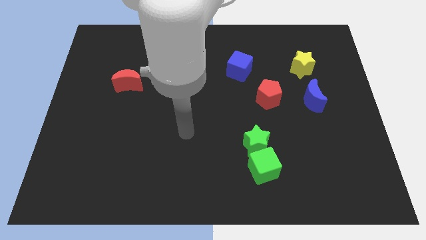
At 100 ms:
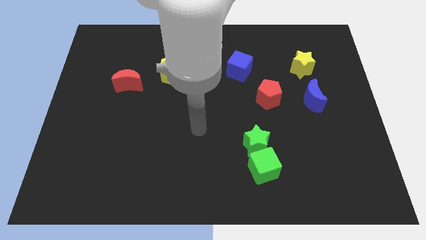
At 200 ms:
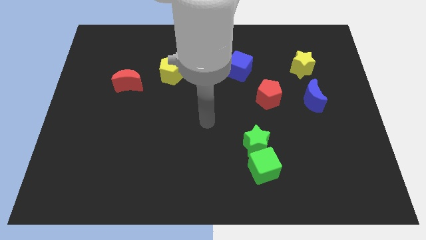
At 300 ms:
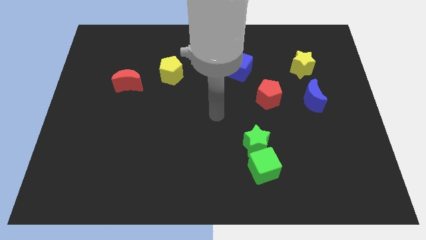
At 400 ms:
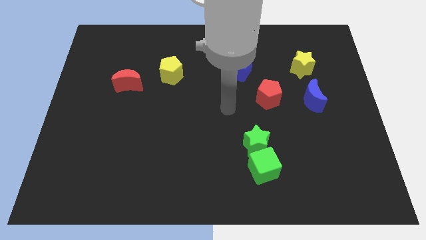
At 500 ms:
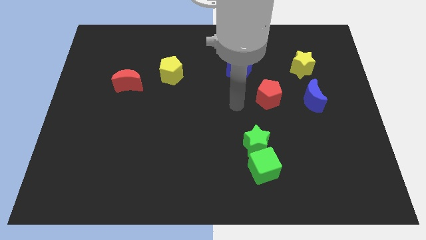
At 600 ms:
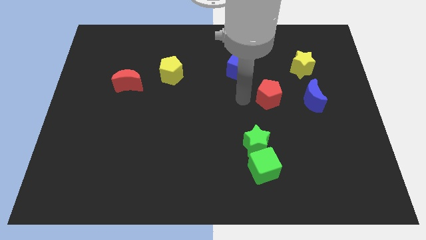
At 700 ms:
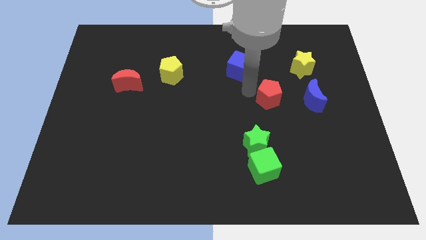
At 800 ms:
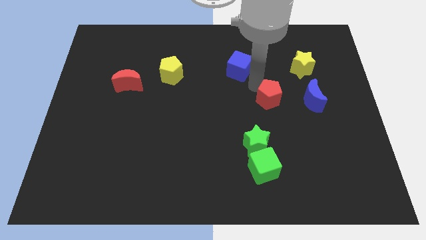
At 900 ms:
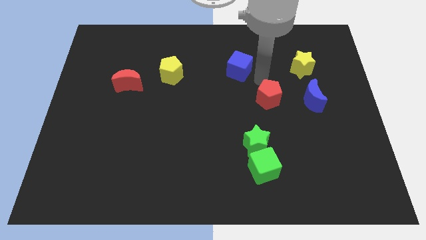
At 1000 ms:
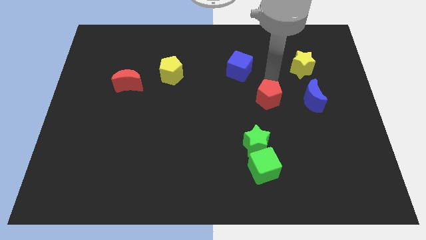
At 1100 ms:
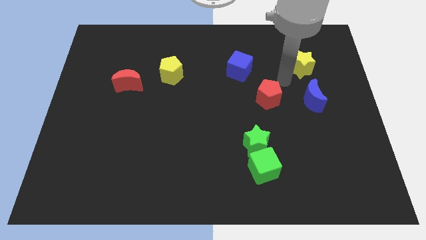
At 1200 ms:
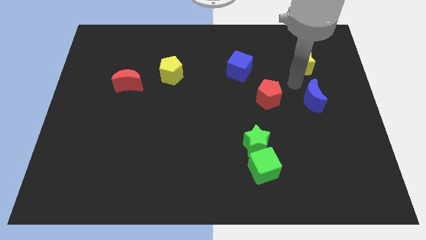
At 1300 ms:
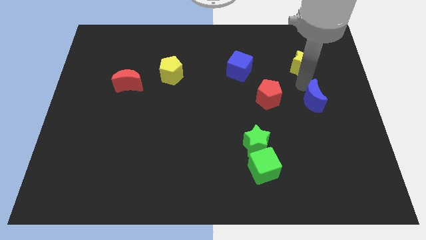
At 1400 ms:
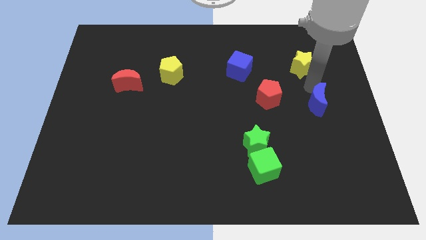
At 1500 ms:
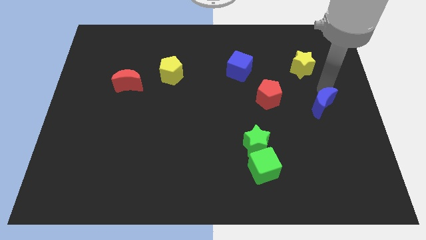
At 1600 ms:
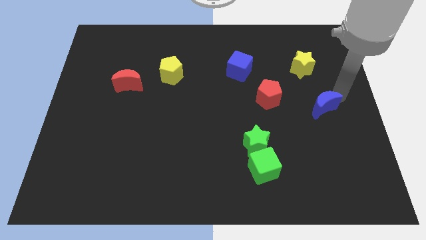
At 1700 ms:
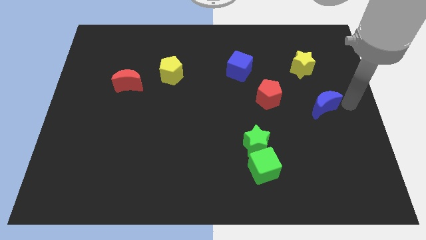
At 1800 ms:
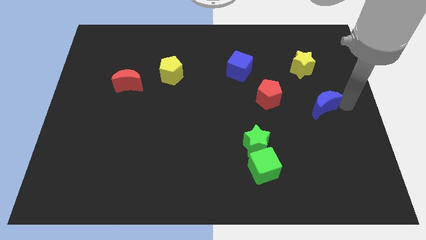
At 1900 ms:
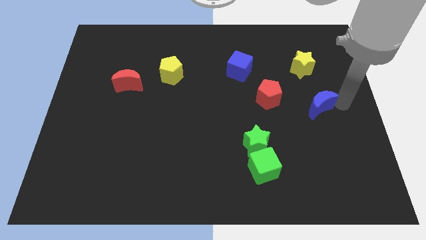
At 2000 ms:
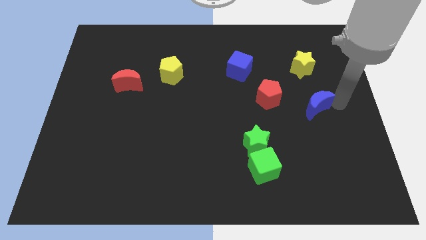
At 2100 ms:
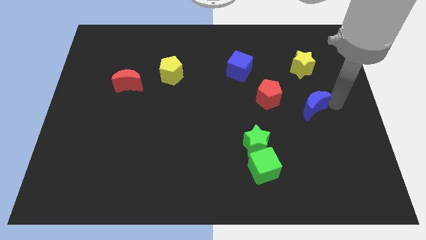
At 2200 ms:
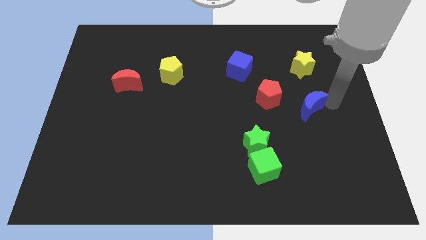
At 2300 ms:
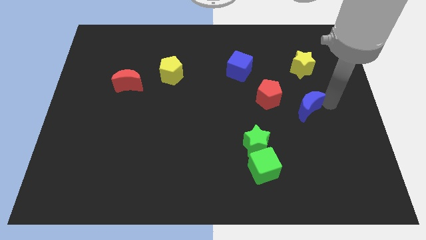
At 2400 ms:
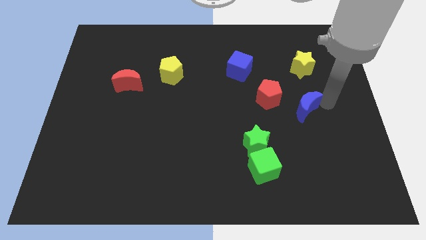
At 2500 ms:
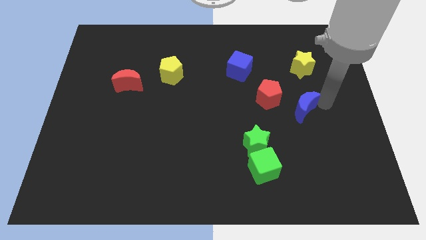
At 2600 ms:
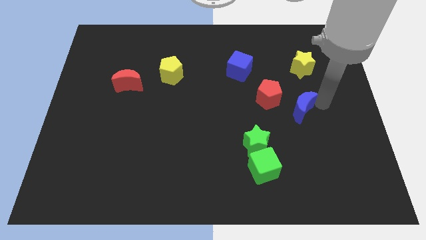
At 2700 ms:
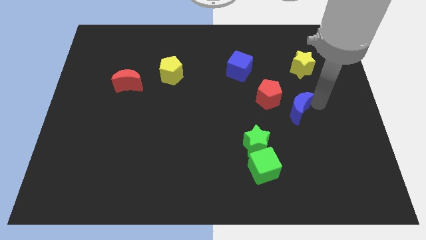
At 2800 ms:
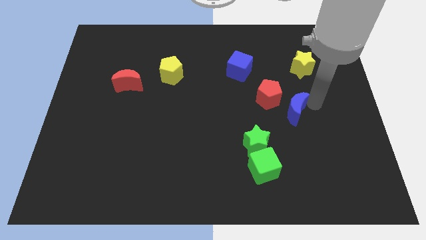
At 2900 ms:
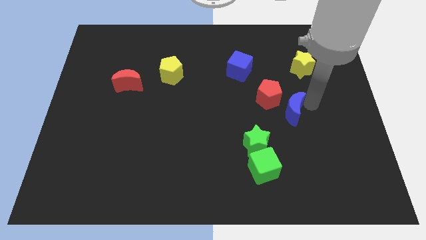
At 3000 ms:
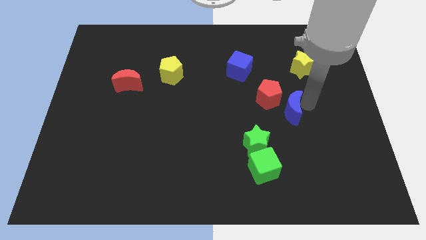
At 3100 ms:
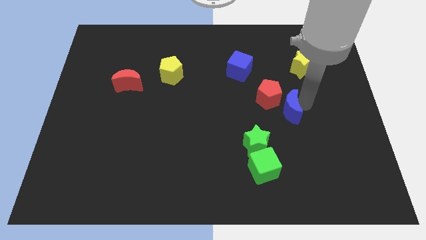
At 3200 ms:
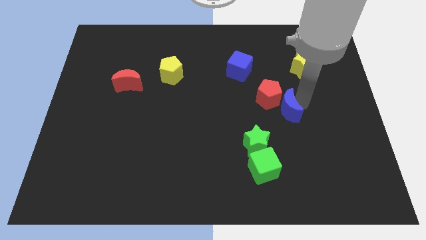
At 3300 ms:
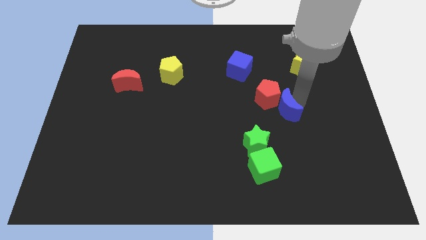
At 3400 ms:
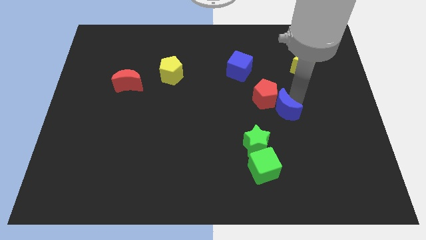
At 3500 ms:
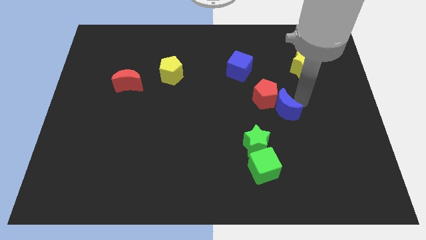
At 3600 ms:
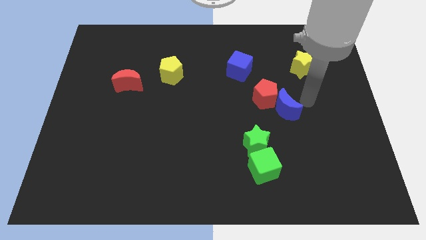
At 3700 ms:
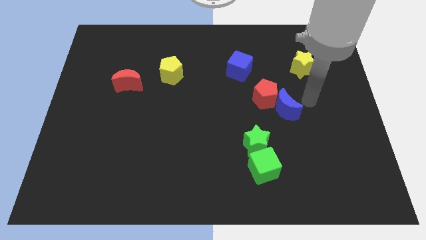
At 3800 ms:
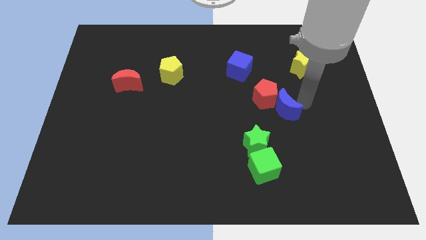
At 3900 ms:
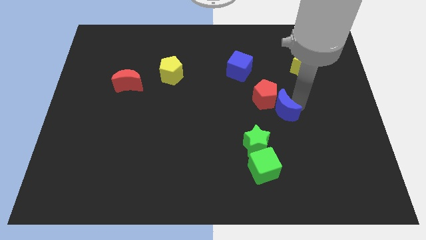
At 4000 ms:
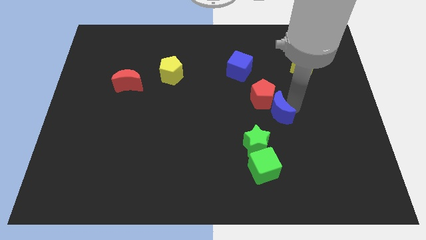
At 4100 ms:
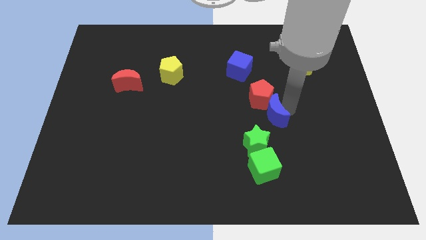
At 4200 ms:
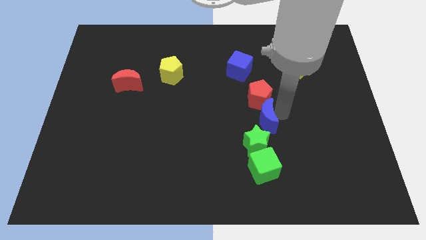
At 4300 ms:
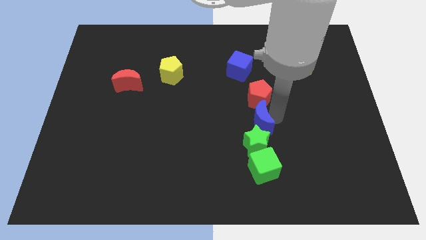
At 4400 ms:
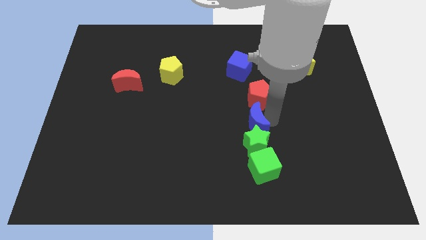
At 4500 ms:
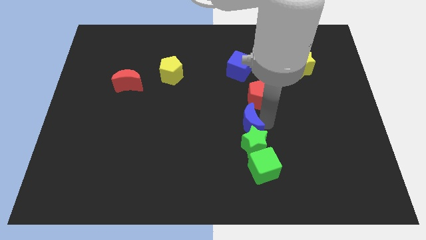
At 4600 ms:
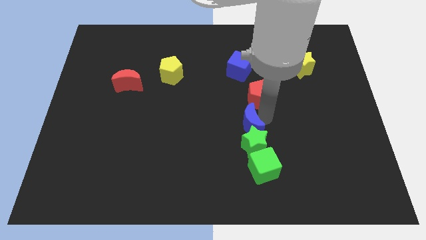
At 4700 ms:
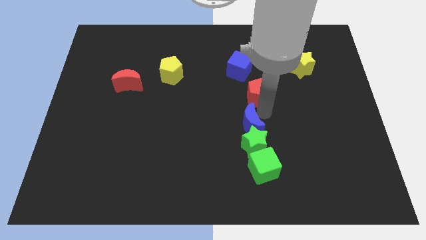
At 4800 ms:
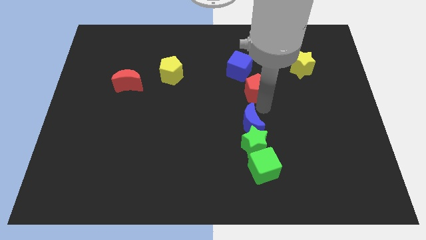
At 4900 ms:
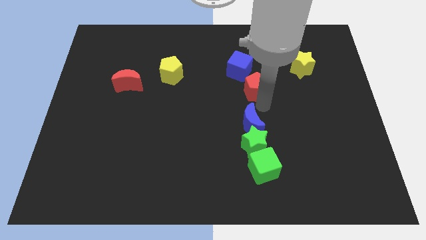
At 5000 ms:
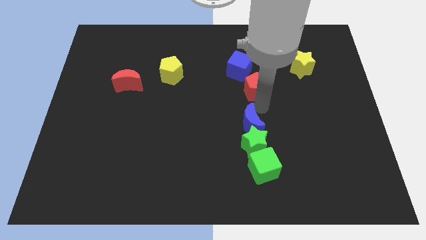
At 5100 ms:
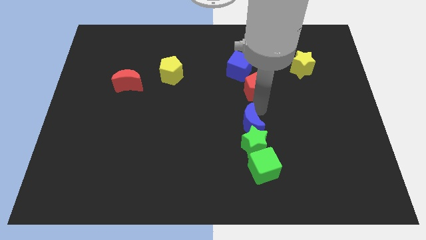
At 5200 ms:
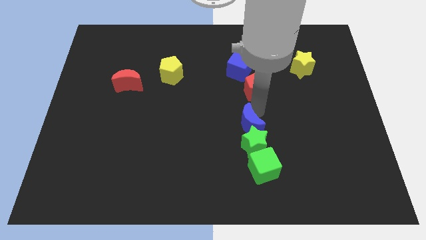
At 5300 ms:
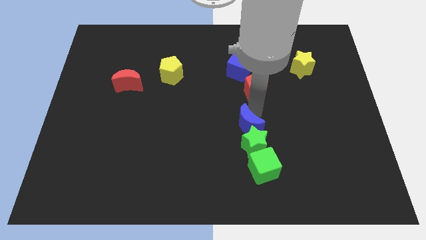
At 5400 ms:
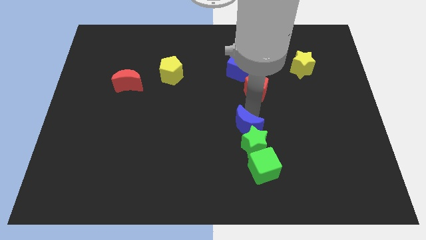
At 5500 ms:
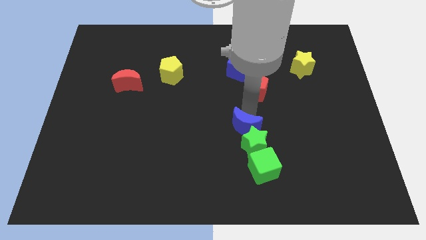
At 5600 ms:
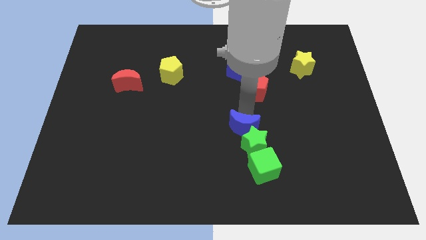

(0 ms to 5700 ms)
slide the blue moon diagonally up and to the left of the green cube
